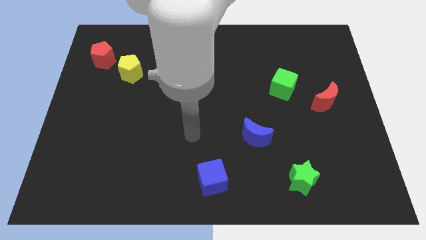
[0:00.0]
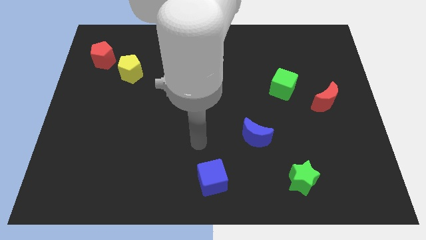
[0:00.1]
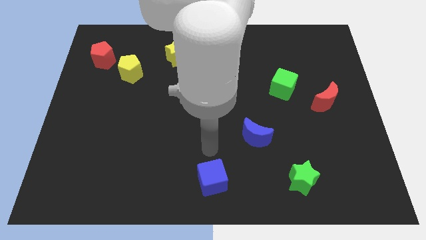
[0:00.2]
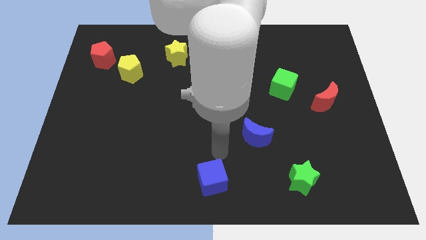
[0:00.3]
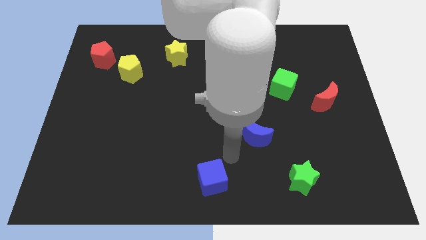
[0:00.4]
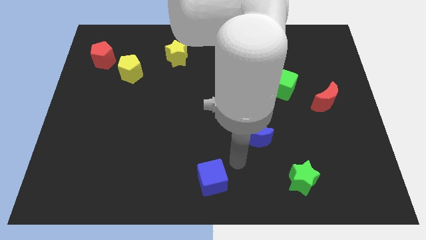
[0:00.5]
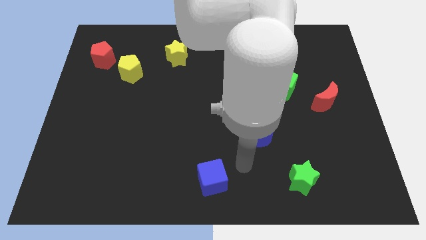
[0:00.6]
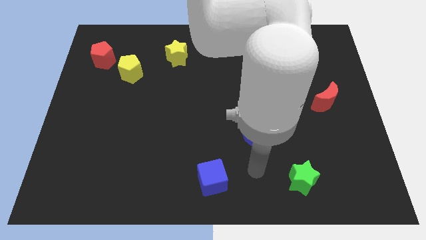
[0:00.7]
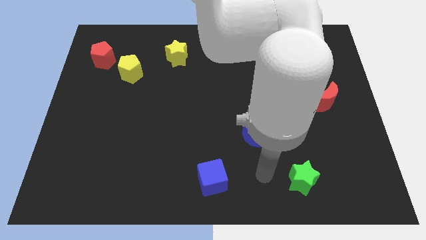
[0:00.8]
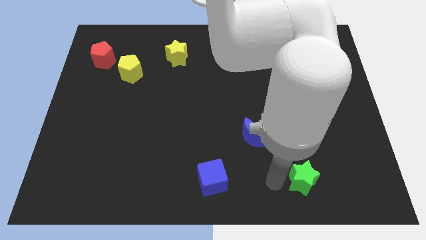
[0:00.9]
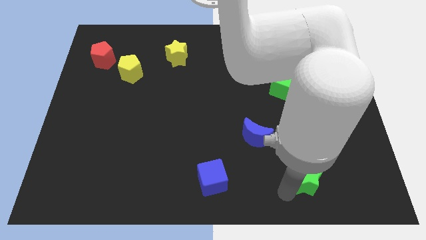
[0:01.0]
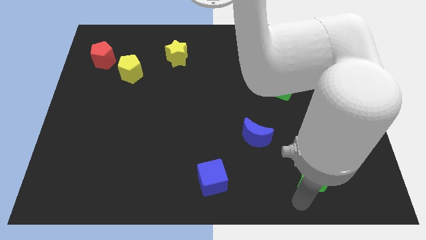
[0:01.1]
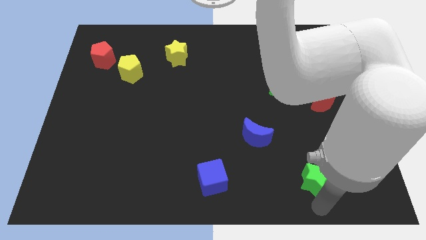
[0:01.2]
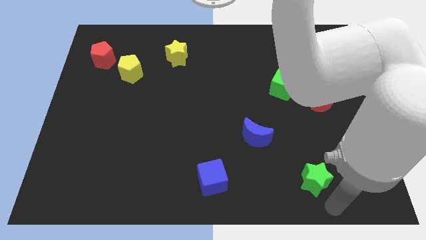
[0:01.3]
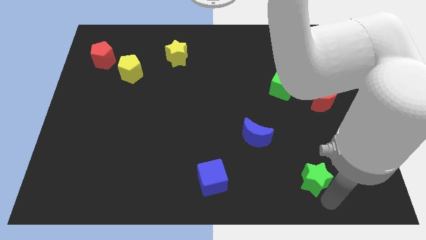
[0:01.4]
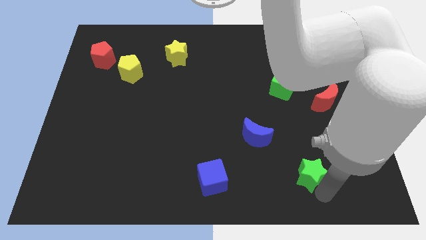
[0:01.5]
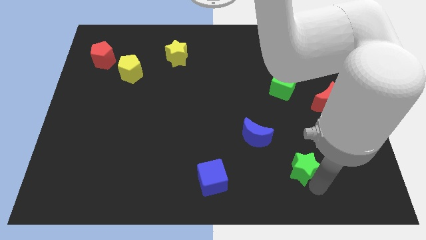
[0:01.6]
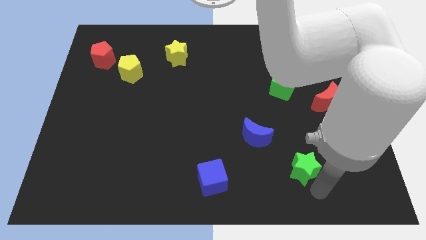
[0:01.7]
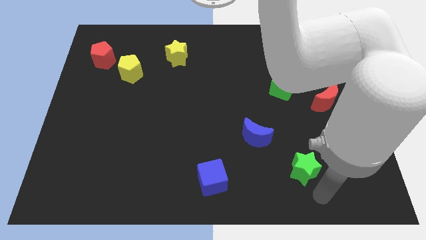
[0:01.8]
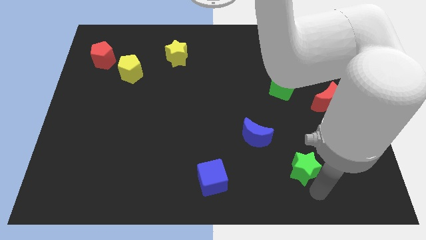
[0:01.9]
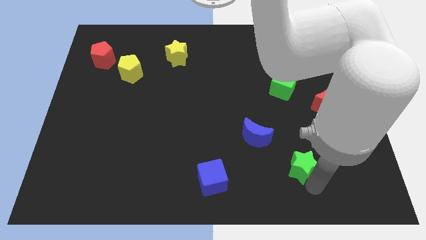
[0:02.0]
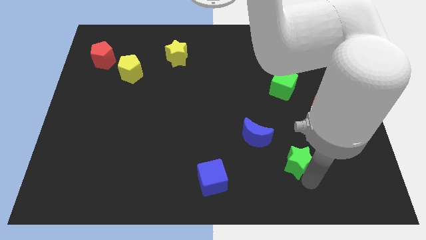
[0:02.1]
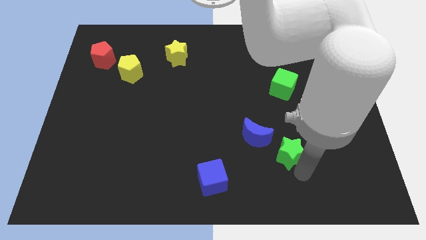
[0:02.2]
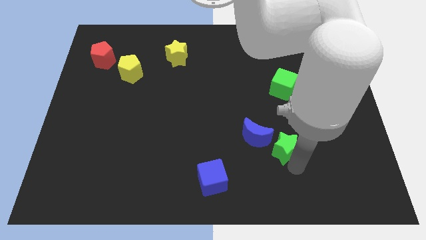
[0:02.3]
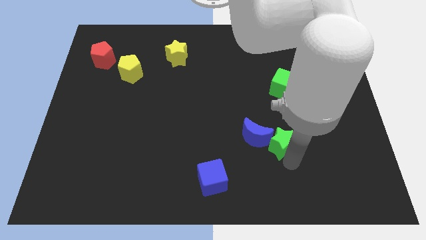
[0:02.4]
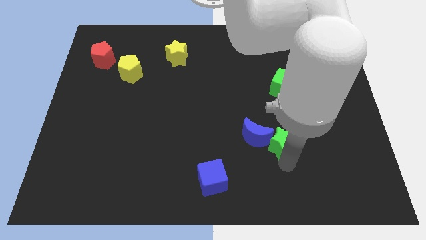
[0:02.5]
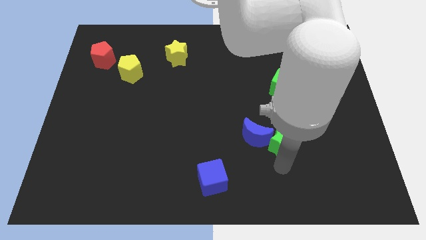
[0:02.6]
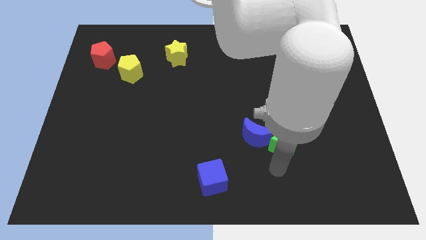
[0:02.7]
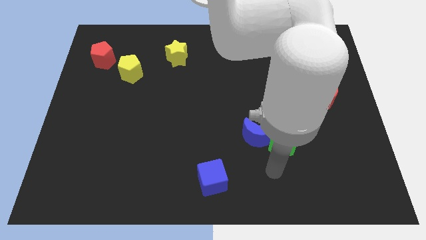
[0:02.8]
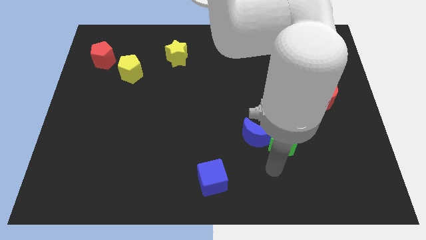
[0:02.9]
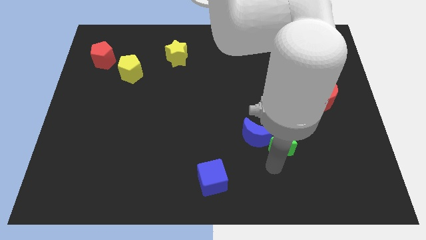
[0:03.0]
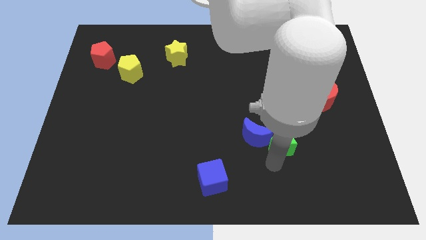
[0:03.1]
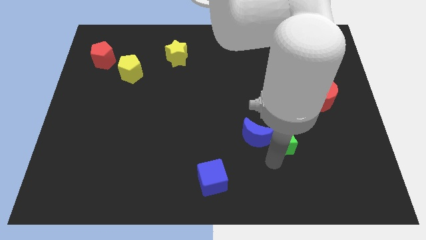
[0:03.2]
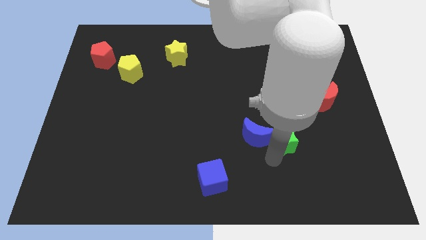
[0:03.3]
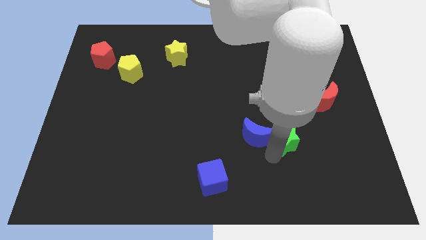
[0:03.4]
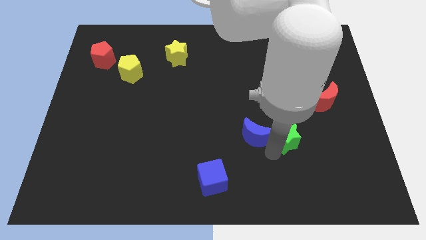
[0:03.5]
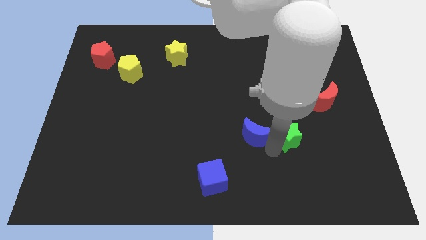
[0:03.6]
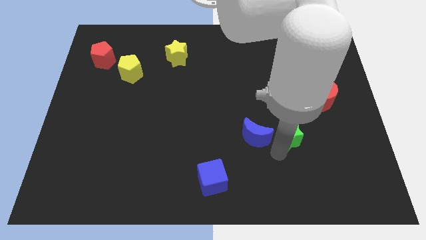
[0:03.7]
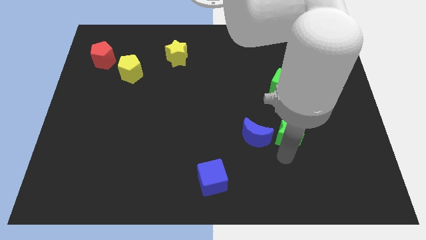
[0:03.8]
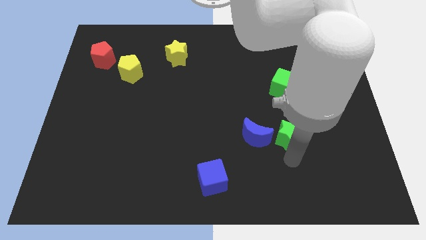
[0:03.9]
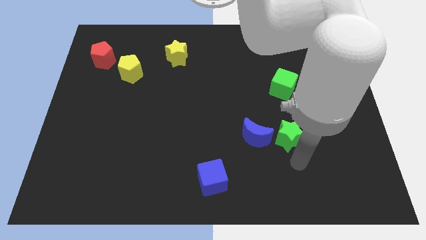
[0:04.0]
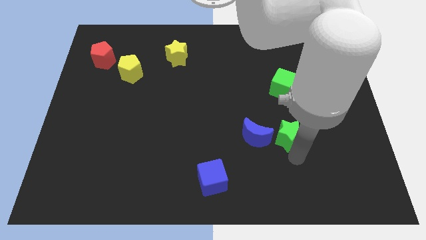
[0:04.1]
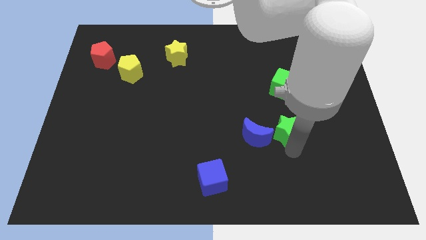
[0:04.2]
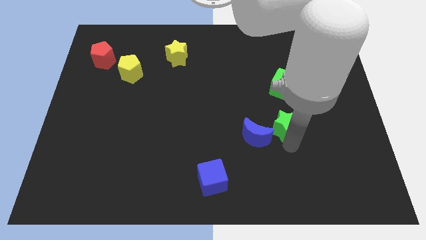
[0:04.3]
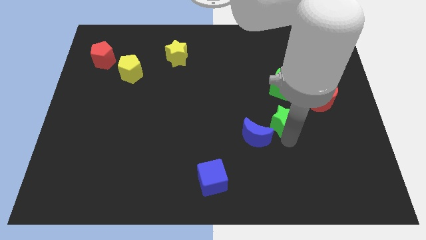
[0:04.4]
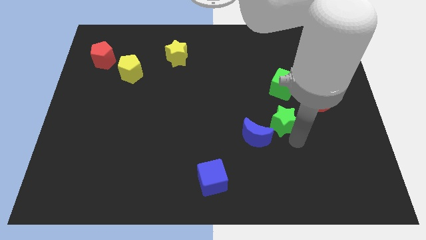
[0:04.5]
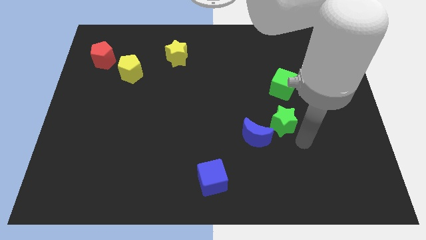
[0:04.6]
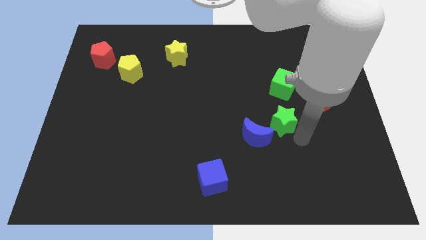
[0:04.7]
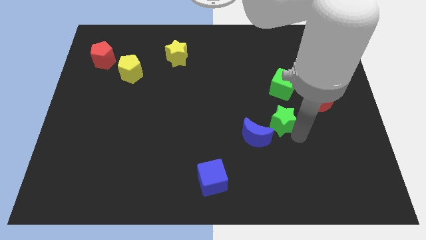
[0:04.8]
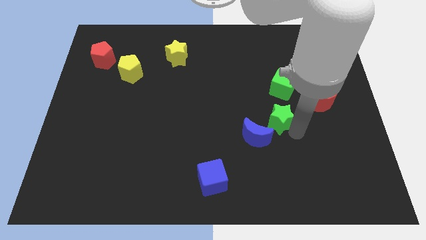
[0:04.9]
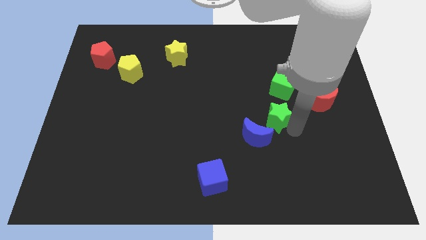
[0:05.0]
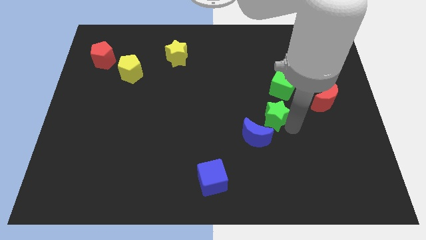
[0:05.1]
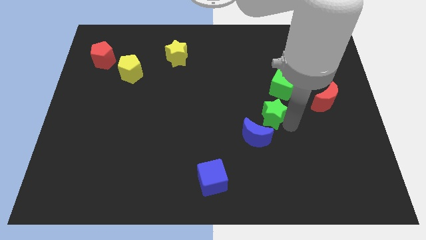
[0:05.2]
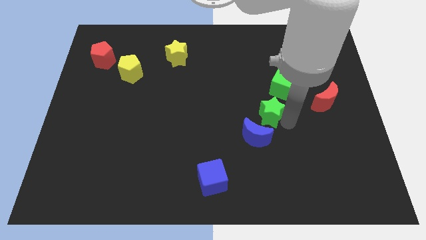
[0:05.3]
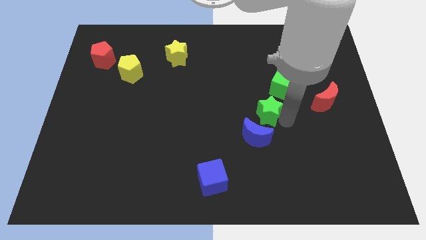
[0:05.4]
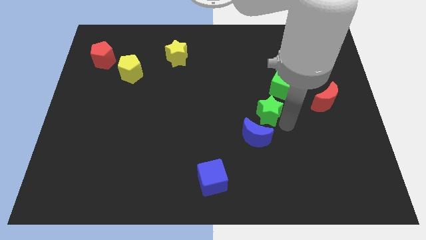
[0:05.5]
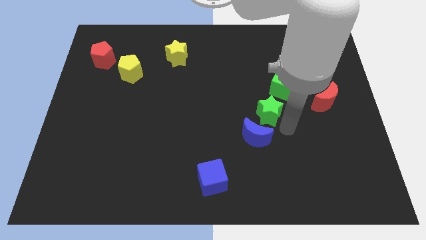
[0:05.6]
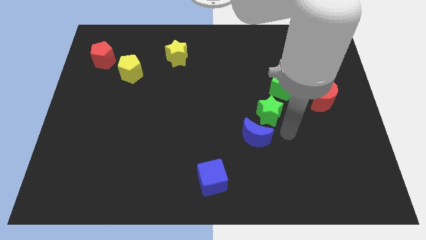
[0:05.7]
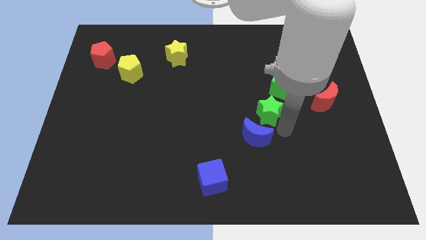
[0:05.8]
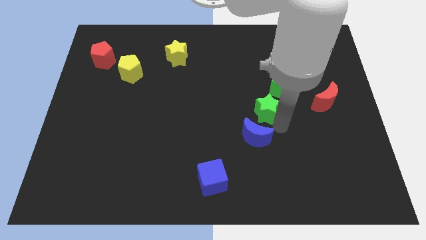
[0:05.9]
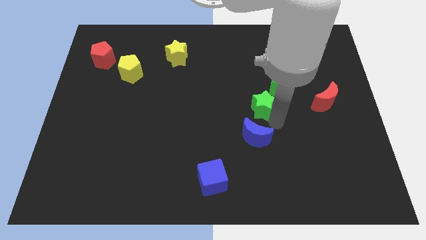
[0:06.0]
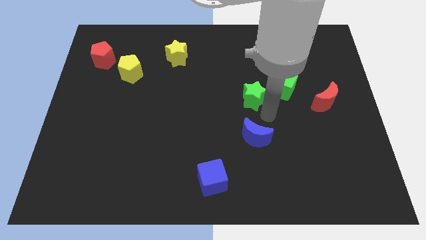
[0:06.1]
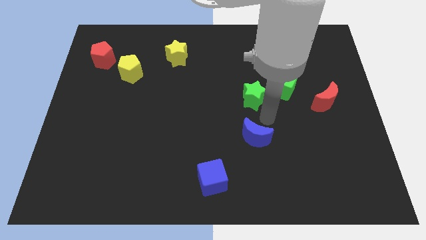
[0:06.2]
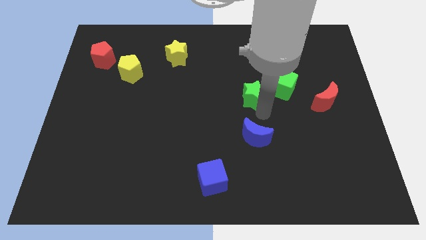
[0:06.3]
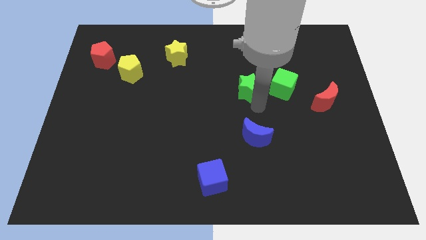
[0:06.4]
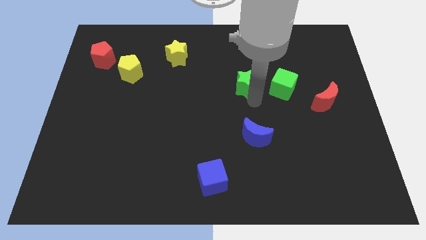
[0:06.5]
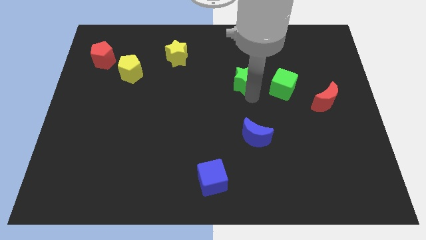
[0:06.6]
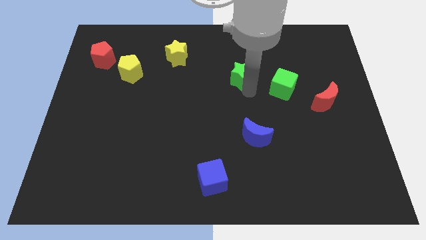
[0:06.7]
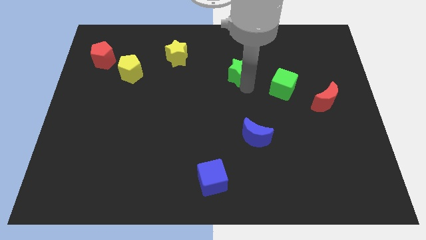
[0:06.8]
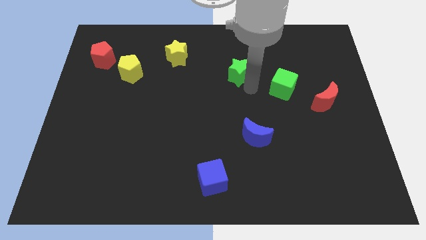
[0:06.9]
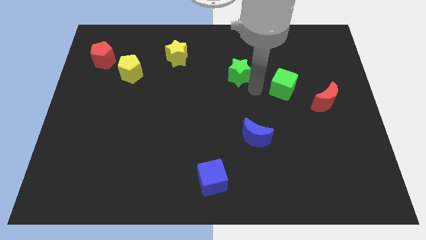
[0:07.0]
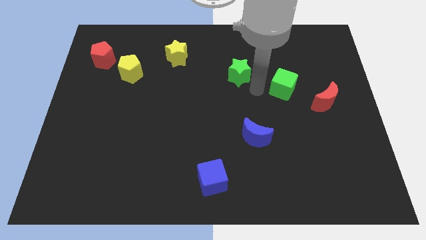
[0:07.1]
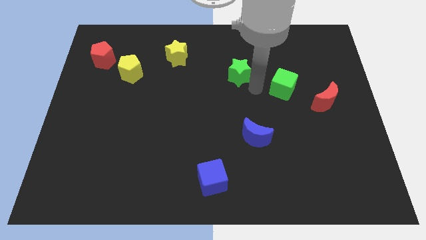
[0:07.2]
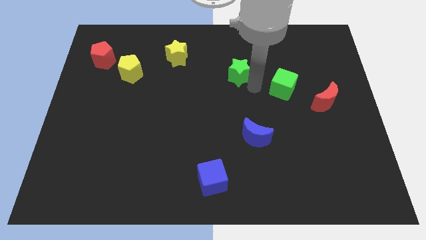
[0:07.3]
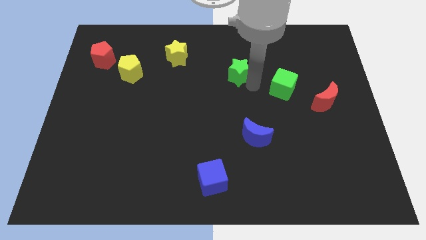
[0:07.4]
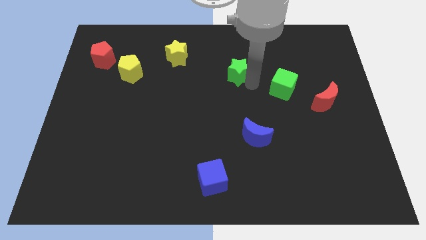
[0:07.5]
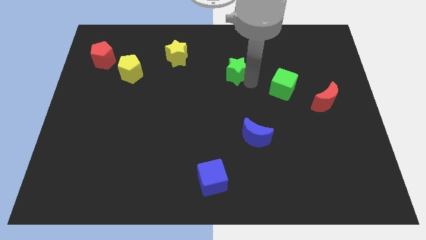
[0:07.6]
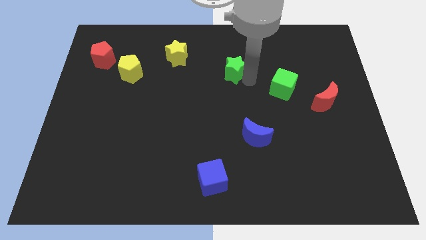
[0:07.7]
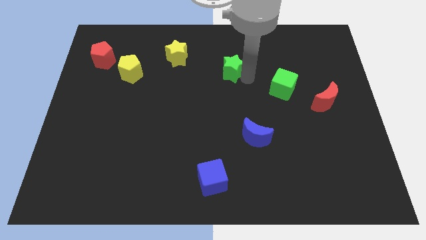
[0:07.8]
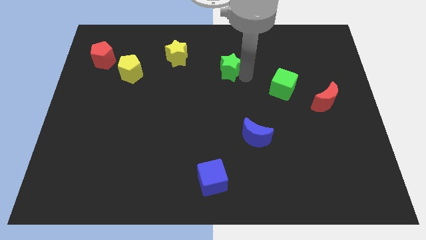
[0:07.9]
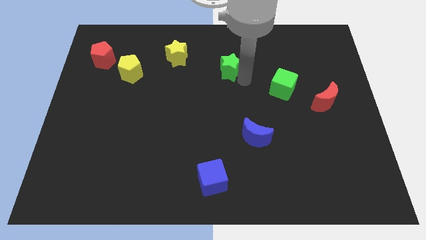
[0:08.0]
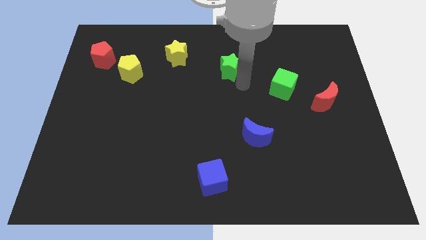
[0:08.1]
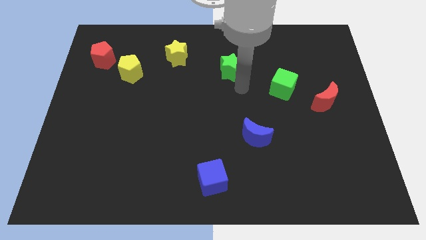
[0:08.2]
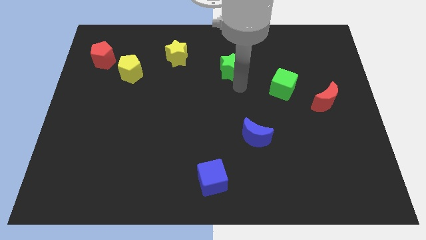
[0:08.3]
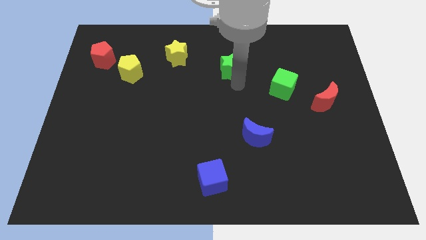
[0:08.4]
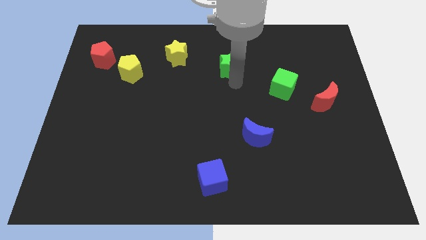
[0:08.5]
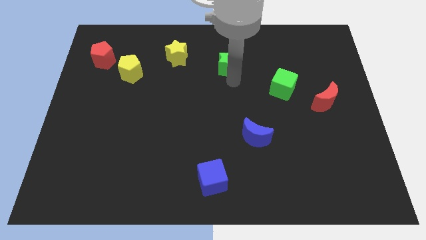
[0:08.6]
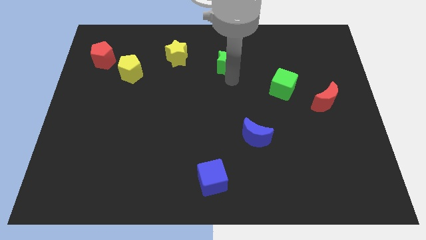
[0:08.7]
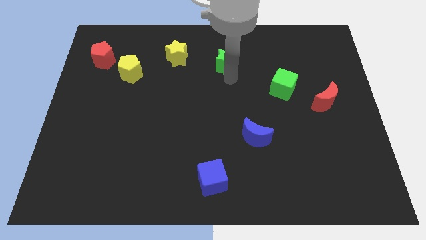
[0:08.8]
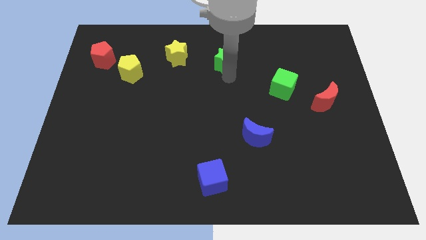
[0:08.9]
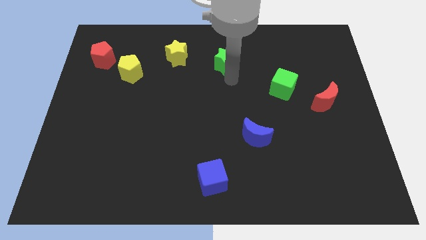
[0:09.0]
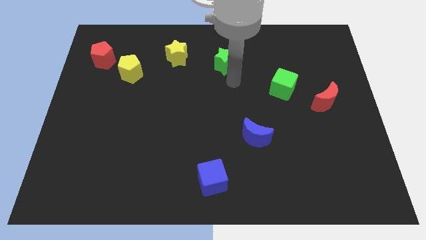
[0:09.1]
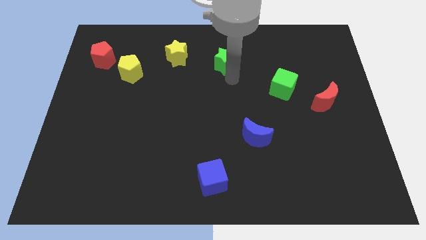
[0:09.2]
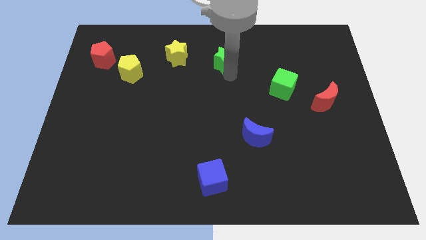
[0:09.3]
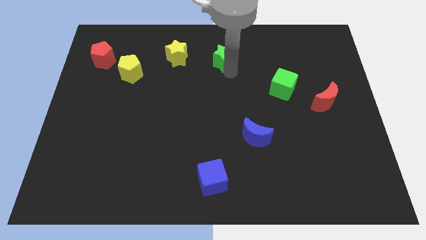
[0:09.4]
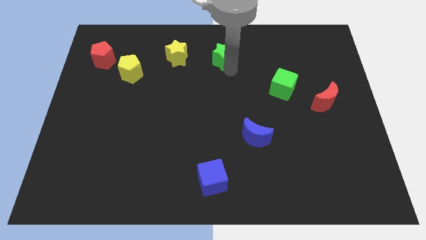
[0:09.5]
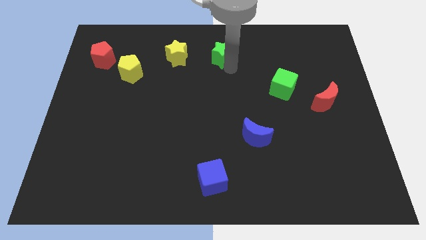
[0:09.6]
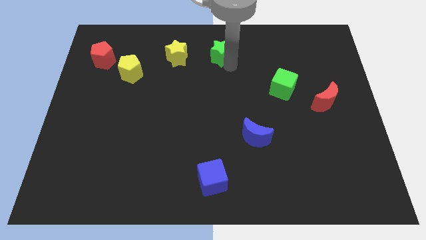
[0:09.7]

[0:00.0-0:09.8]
push the green star to the towards your base
